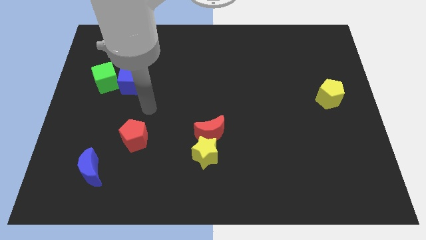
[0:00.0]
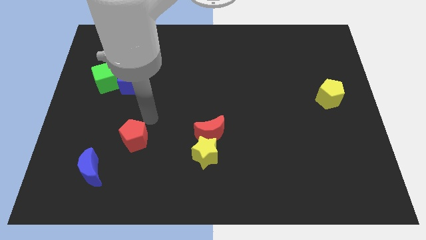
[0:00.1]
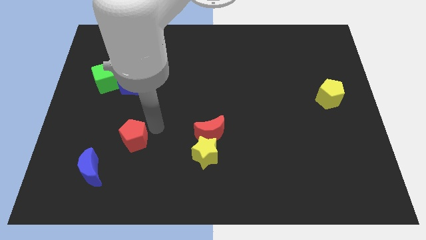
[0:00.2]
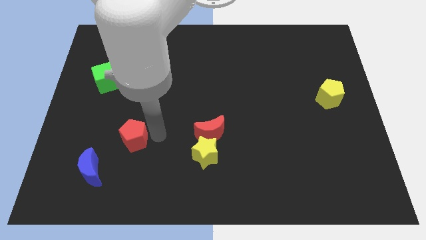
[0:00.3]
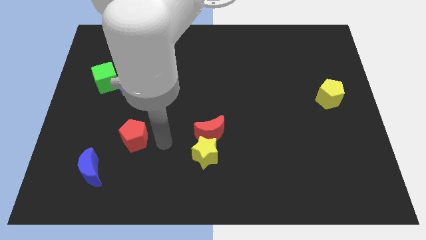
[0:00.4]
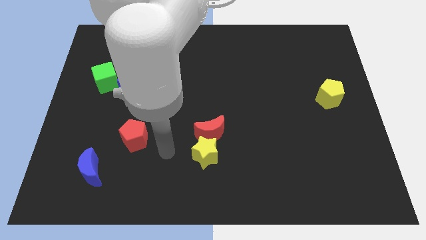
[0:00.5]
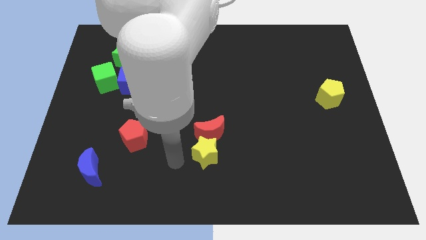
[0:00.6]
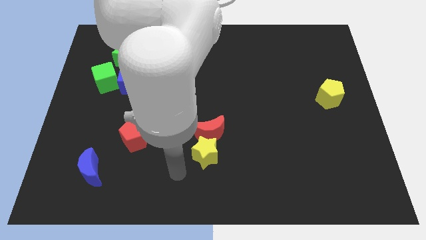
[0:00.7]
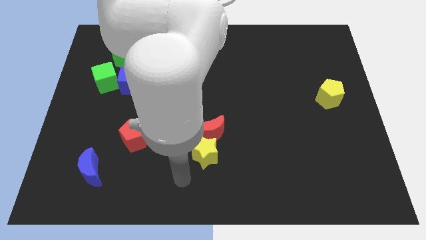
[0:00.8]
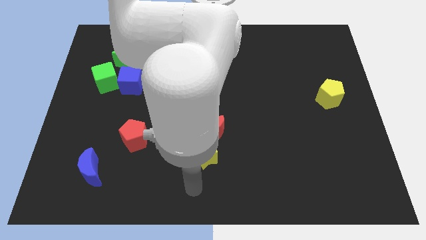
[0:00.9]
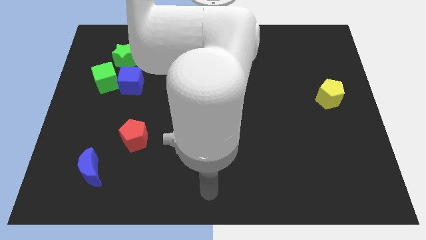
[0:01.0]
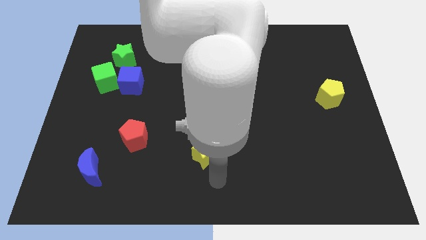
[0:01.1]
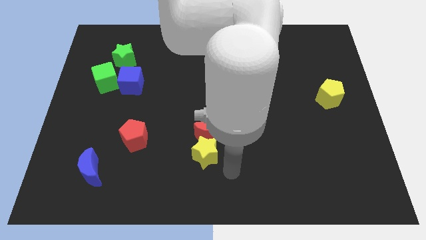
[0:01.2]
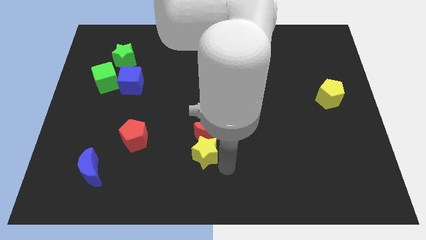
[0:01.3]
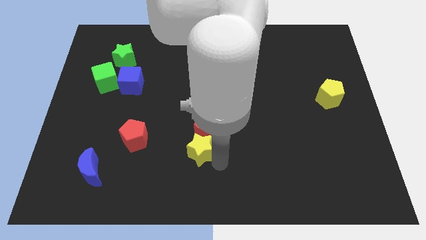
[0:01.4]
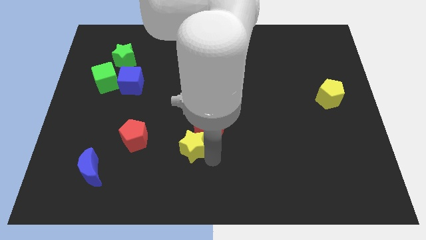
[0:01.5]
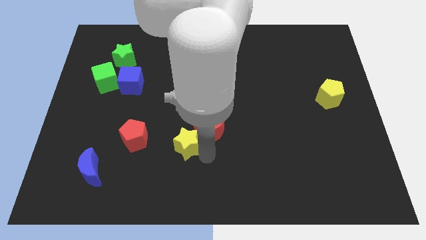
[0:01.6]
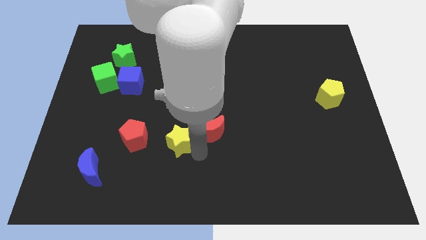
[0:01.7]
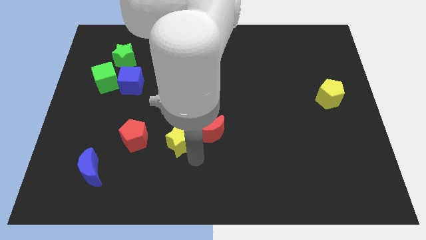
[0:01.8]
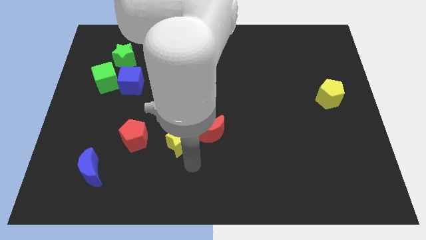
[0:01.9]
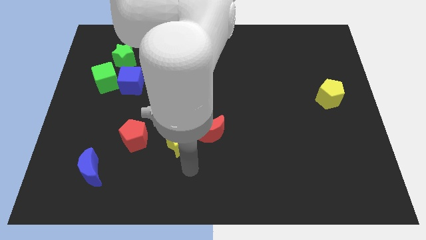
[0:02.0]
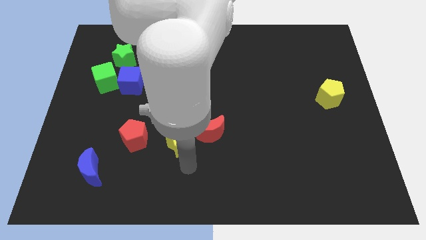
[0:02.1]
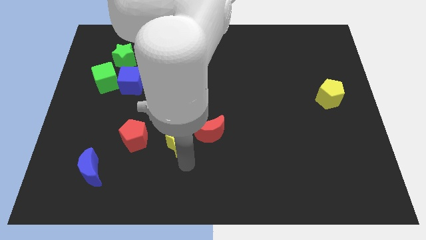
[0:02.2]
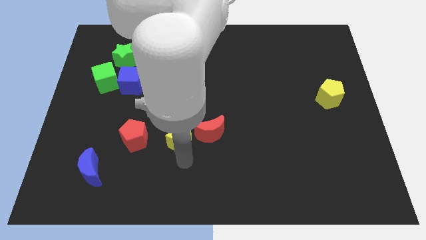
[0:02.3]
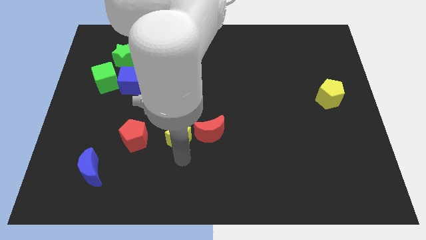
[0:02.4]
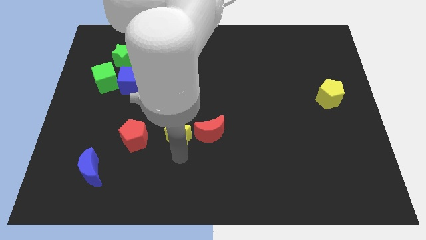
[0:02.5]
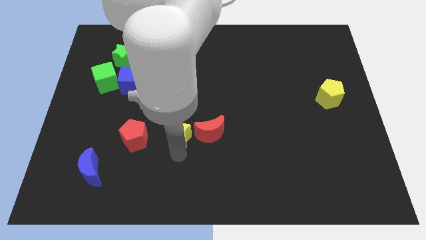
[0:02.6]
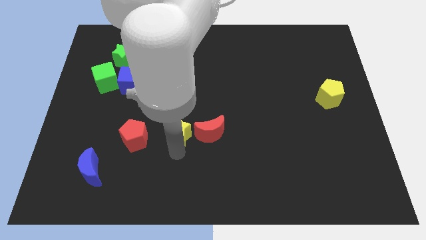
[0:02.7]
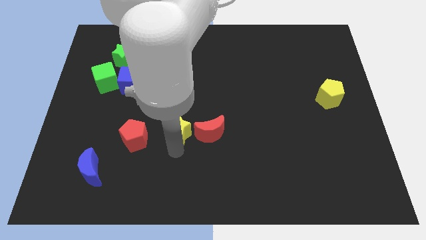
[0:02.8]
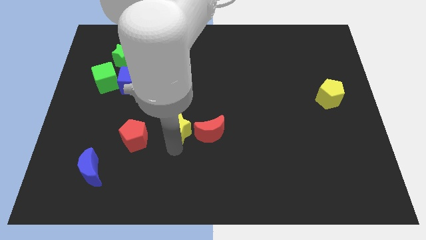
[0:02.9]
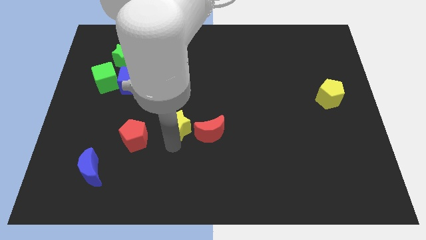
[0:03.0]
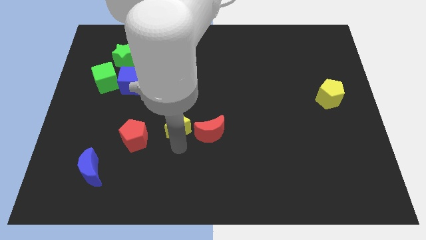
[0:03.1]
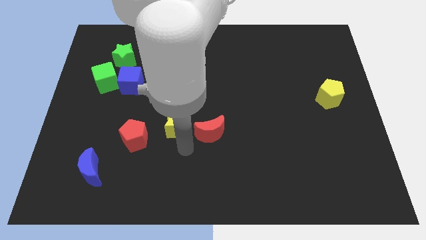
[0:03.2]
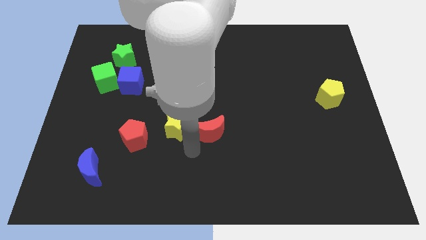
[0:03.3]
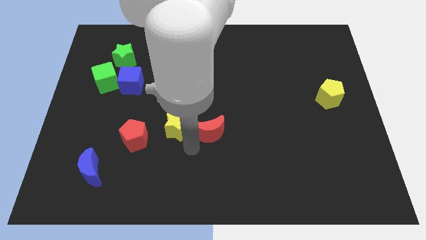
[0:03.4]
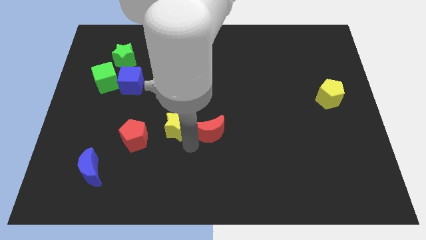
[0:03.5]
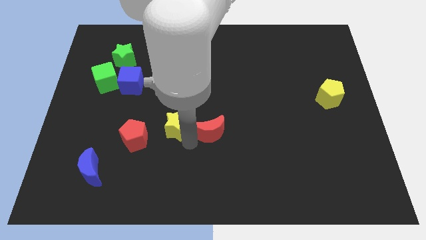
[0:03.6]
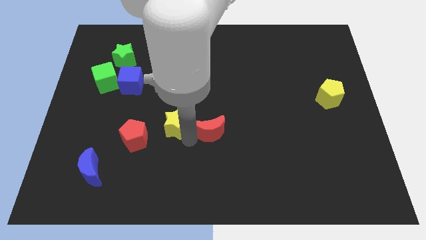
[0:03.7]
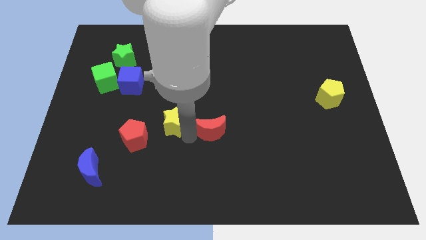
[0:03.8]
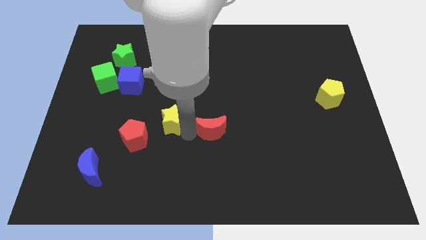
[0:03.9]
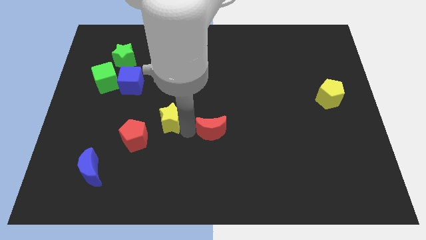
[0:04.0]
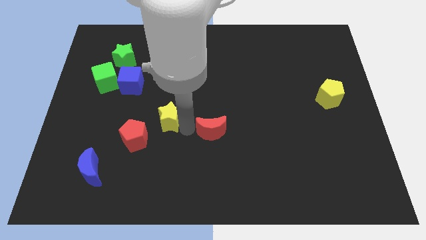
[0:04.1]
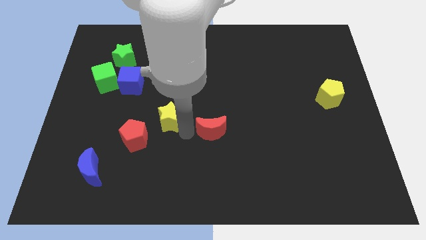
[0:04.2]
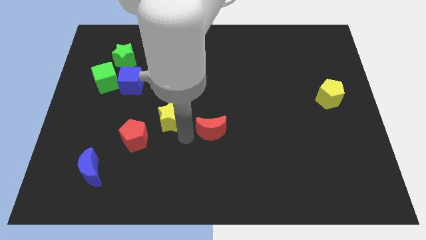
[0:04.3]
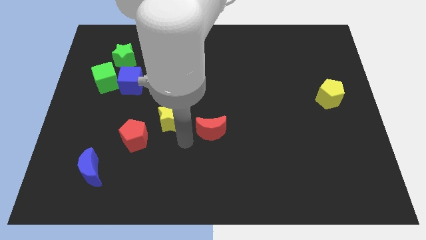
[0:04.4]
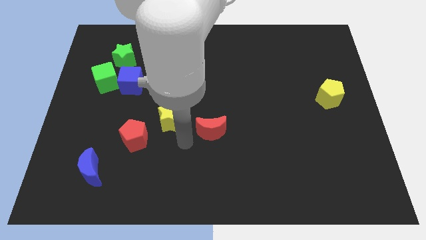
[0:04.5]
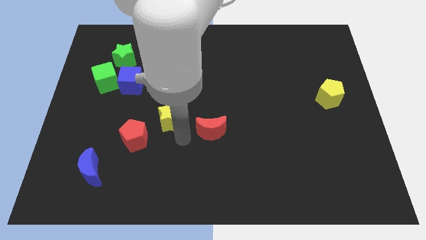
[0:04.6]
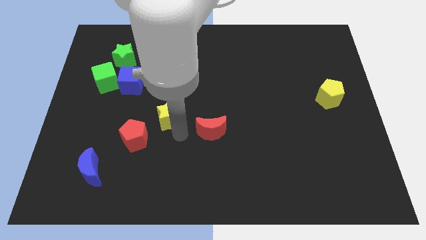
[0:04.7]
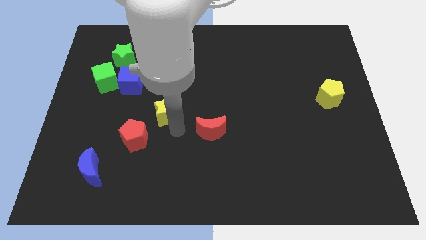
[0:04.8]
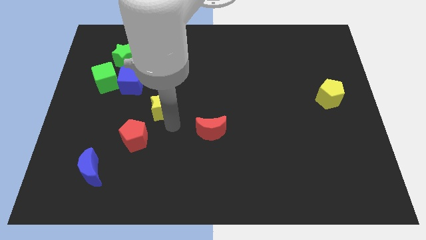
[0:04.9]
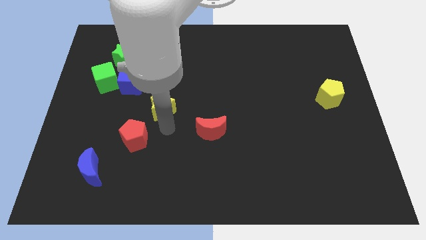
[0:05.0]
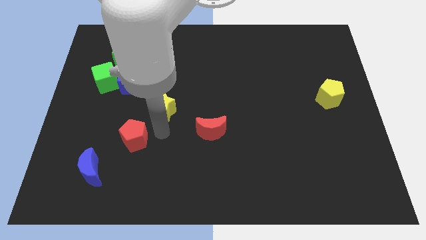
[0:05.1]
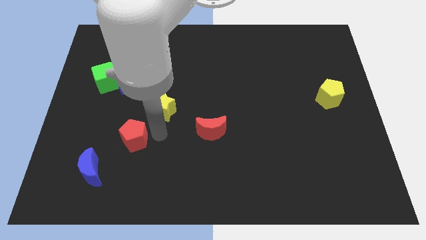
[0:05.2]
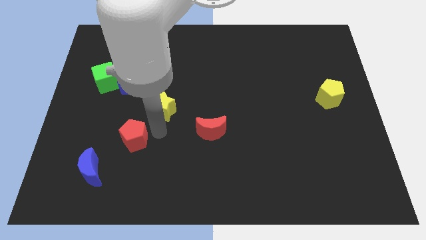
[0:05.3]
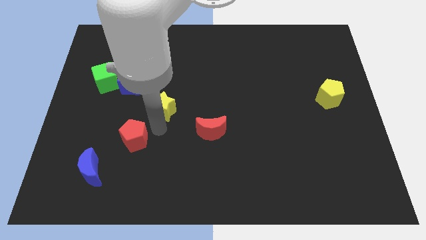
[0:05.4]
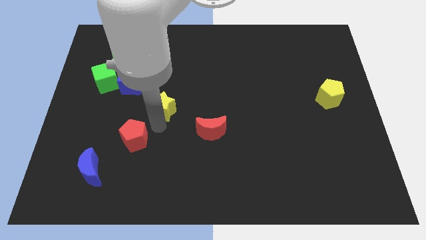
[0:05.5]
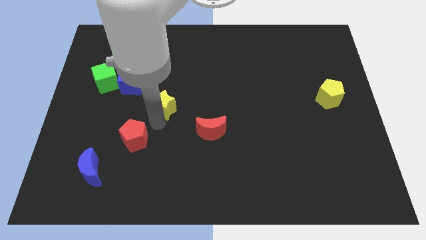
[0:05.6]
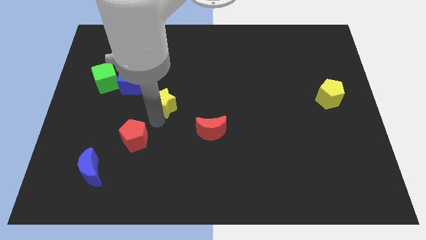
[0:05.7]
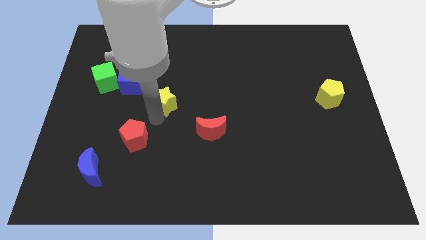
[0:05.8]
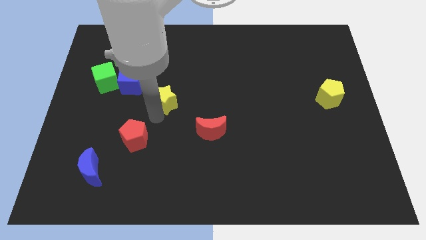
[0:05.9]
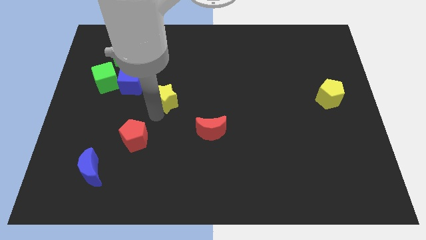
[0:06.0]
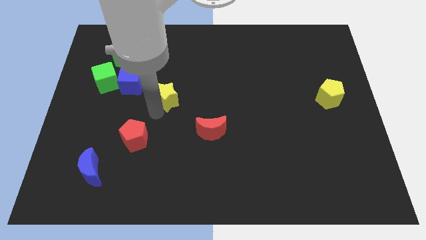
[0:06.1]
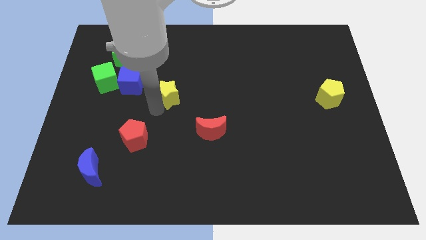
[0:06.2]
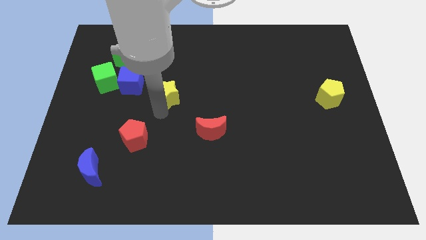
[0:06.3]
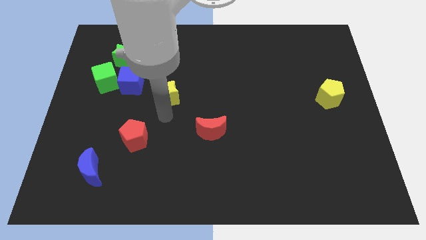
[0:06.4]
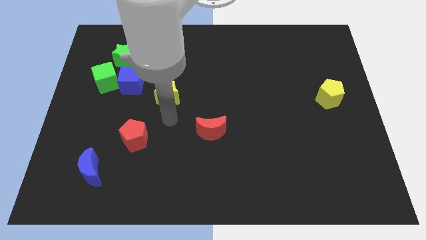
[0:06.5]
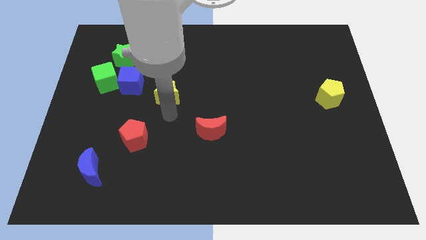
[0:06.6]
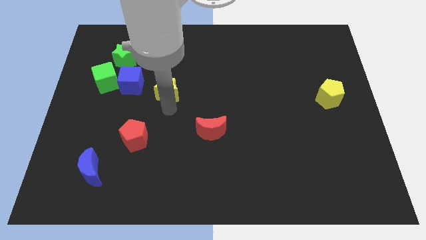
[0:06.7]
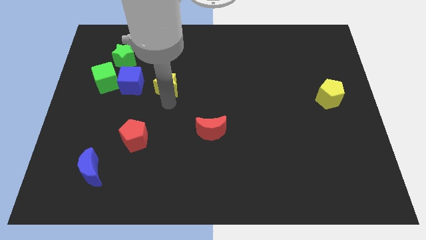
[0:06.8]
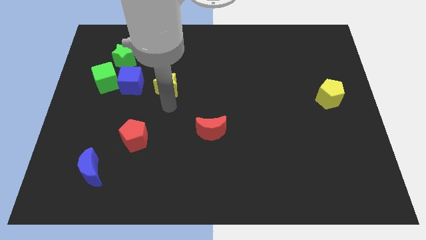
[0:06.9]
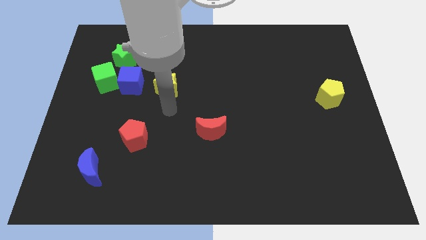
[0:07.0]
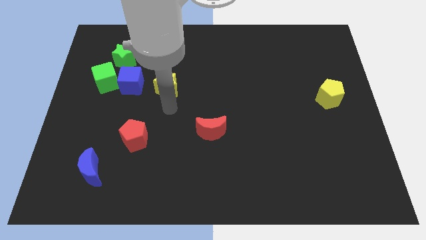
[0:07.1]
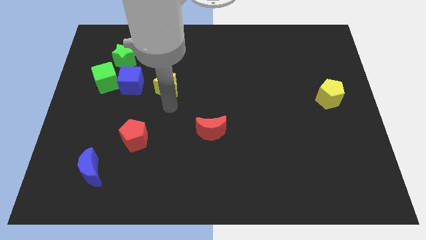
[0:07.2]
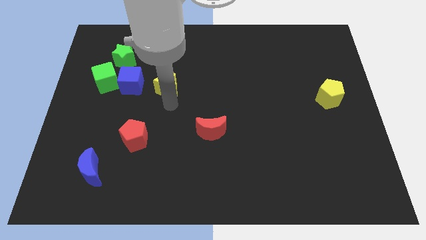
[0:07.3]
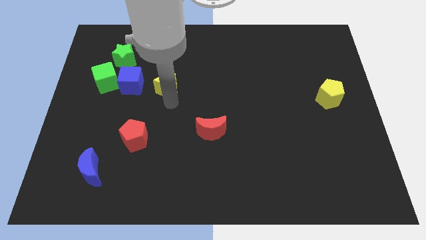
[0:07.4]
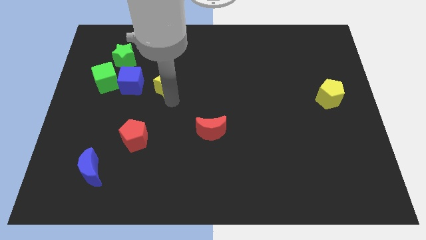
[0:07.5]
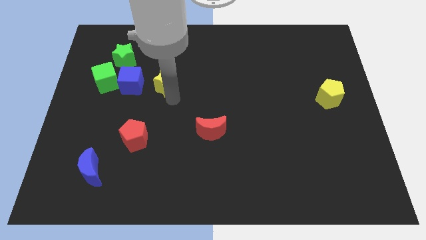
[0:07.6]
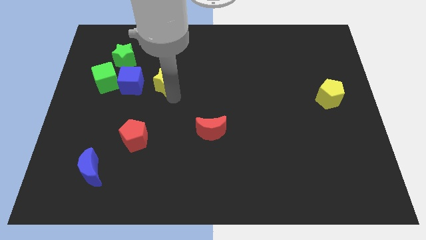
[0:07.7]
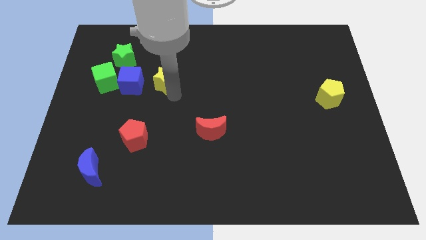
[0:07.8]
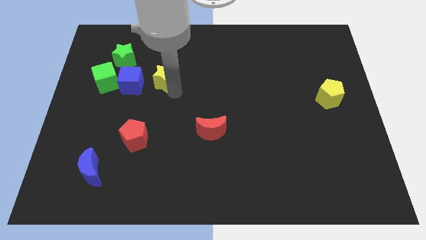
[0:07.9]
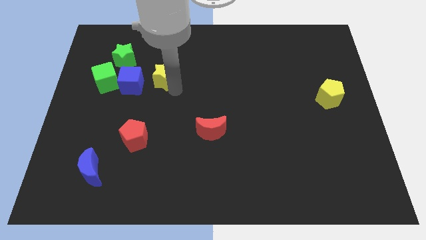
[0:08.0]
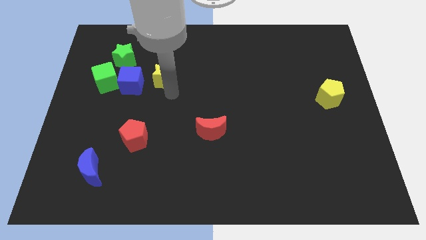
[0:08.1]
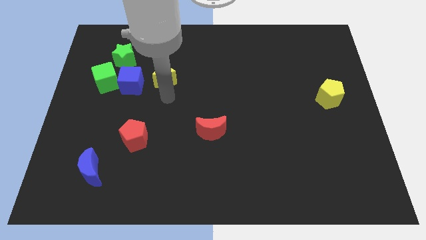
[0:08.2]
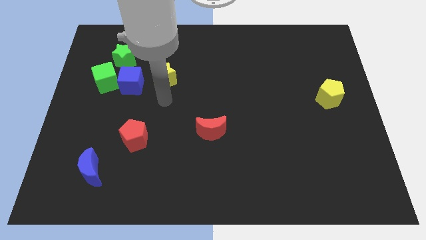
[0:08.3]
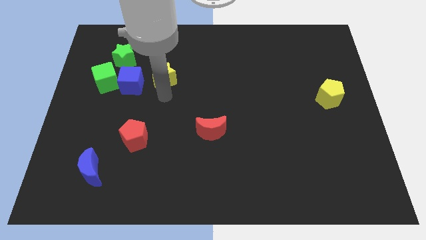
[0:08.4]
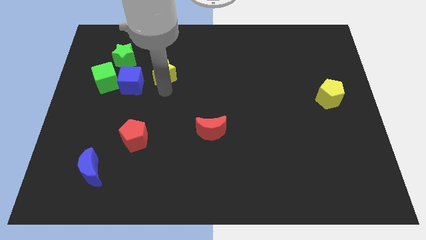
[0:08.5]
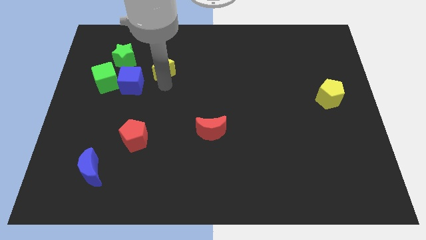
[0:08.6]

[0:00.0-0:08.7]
put the yellow star to the right side of the green star
